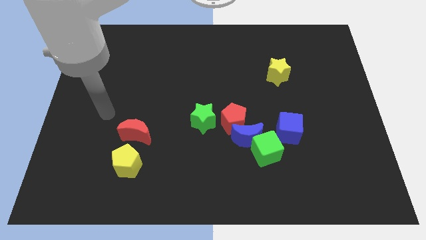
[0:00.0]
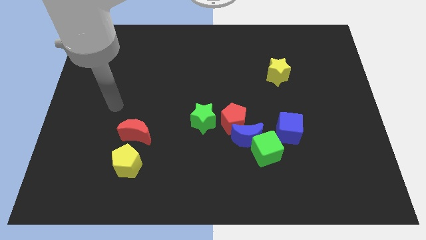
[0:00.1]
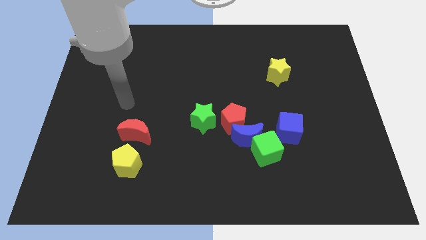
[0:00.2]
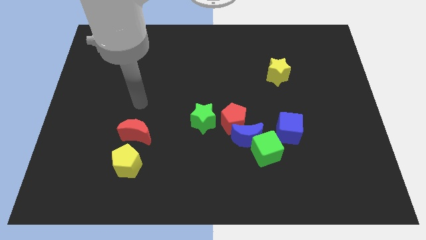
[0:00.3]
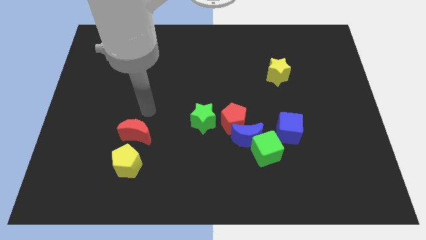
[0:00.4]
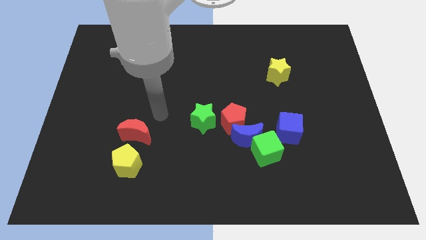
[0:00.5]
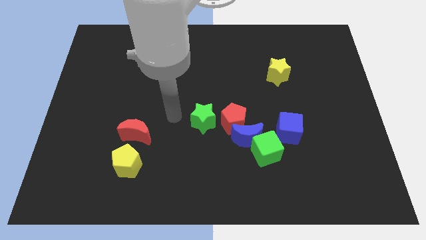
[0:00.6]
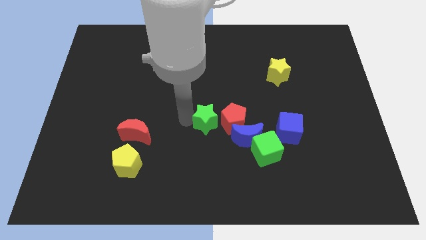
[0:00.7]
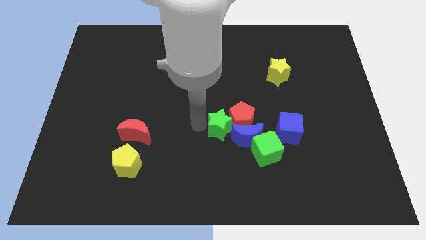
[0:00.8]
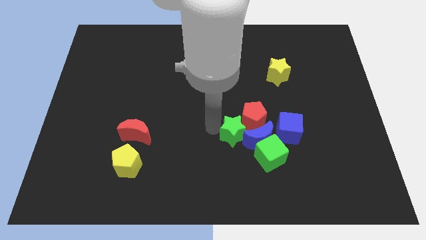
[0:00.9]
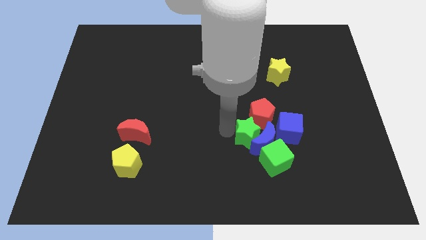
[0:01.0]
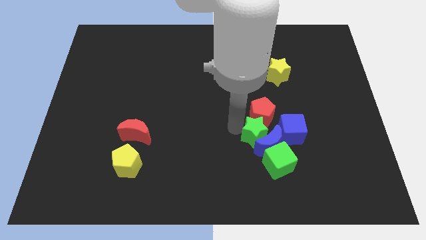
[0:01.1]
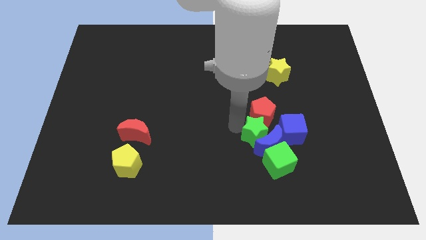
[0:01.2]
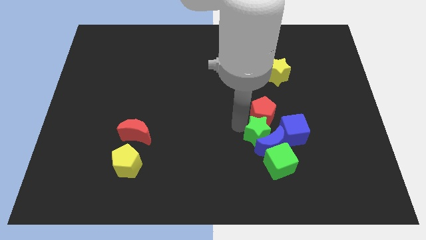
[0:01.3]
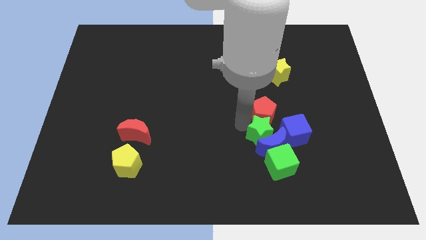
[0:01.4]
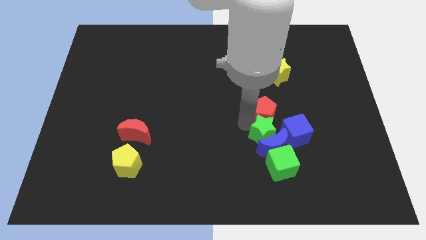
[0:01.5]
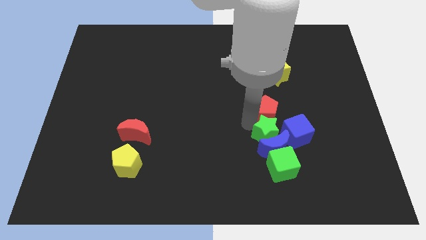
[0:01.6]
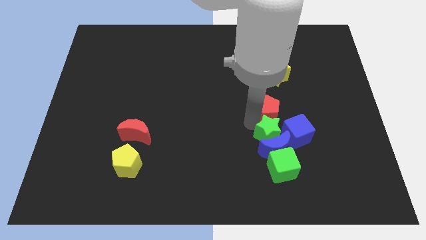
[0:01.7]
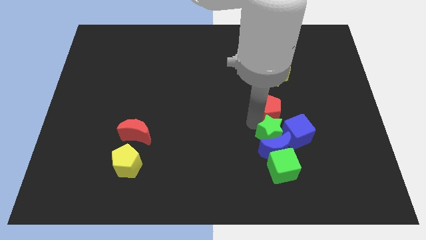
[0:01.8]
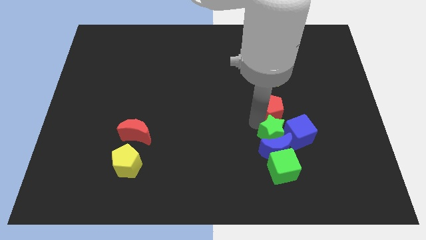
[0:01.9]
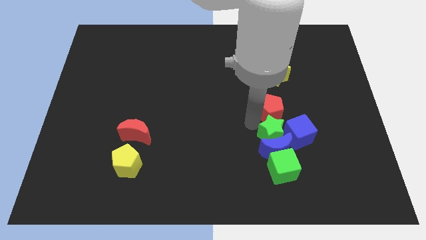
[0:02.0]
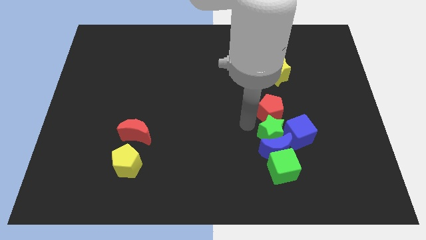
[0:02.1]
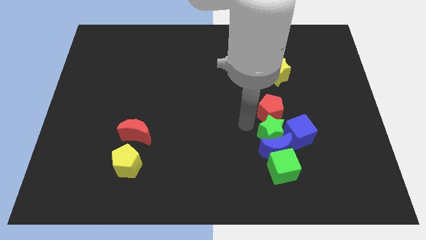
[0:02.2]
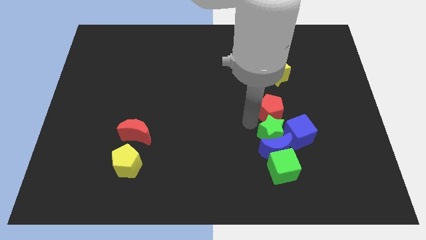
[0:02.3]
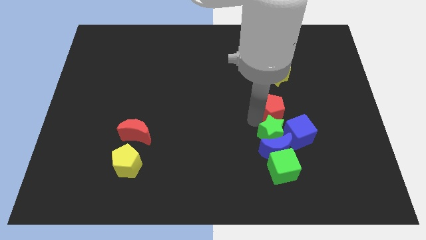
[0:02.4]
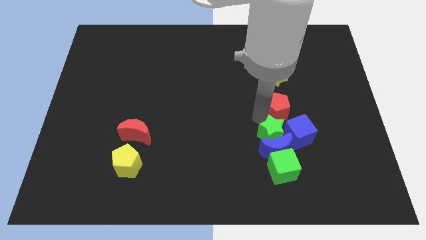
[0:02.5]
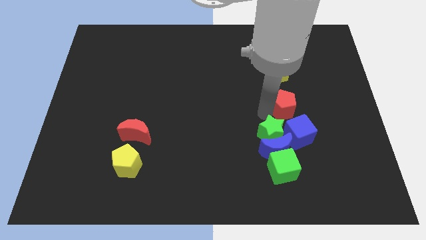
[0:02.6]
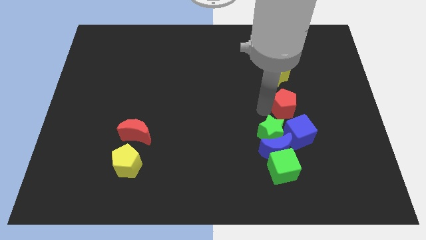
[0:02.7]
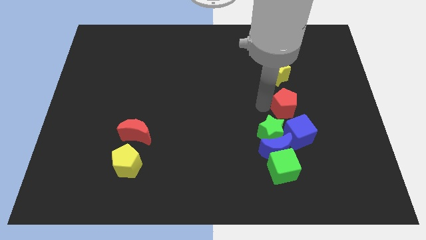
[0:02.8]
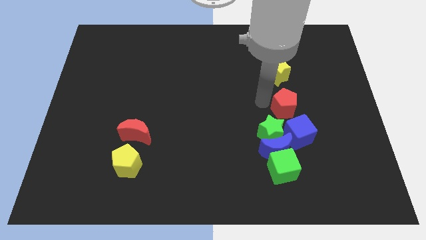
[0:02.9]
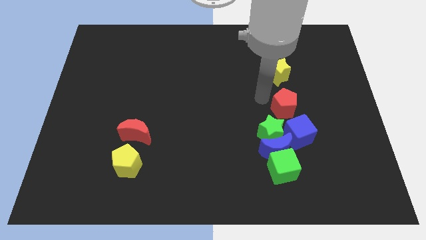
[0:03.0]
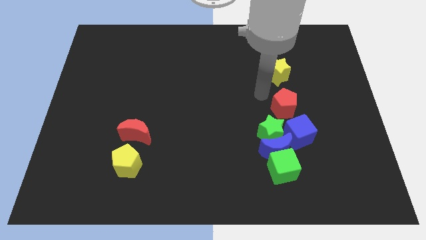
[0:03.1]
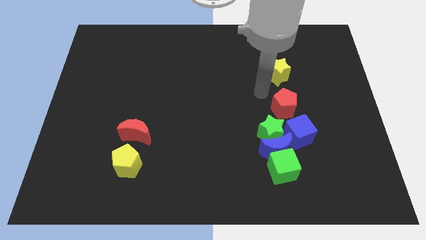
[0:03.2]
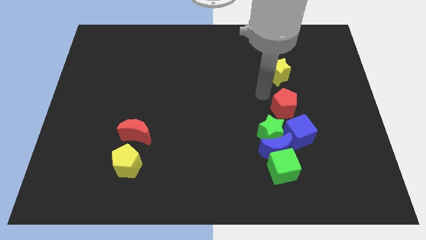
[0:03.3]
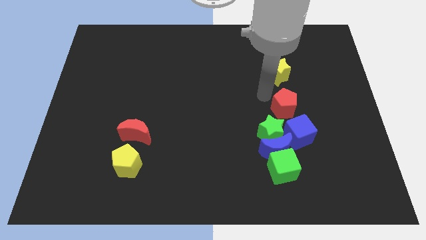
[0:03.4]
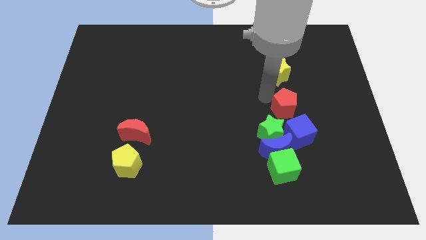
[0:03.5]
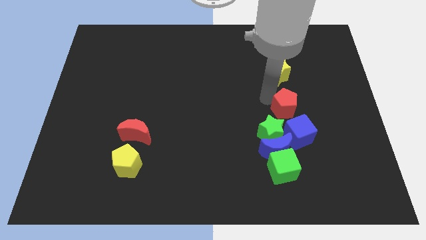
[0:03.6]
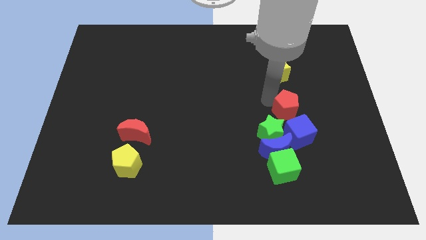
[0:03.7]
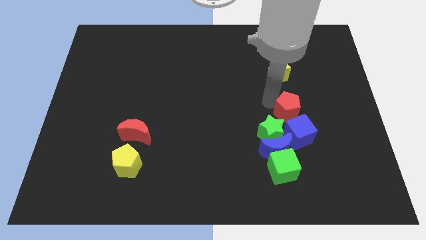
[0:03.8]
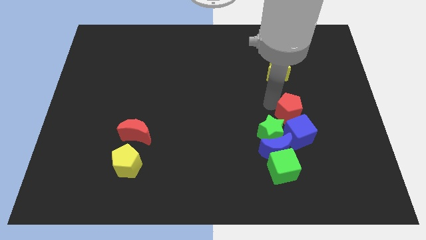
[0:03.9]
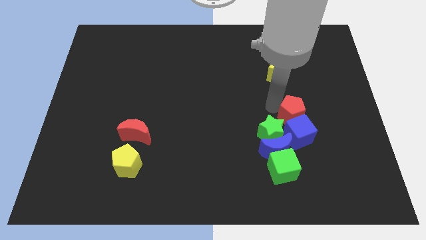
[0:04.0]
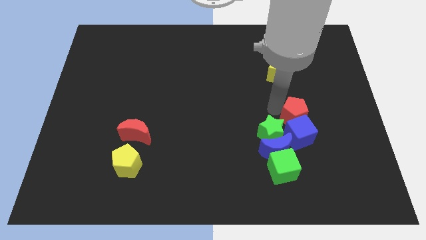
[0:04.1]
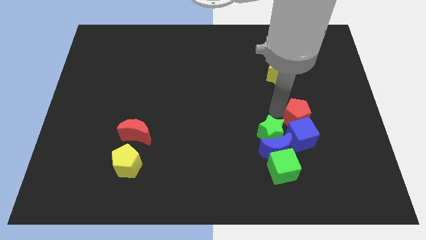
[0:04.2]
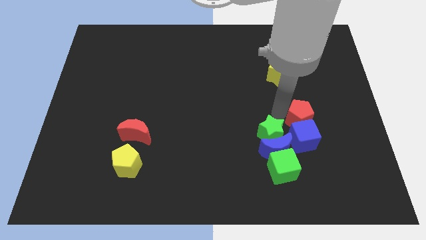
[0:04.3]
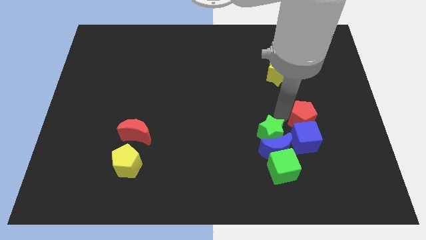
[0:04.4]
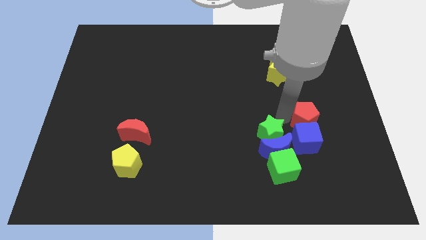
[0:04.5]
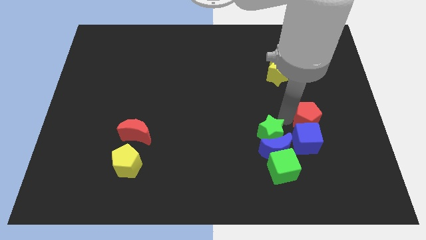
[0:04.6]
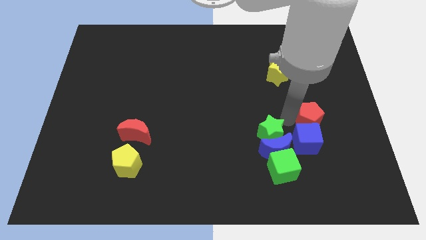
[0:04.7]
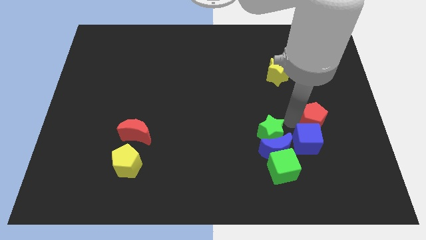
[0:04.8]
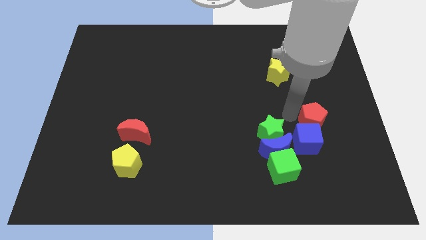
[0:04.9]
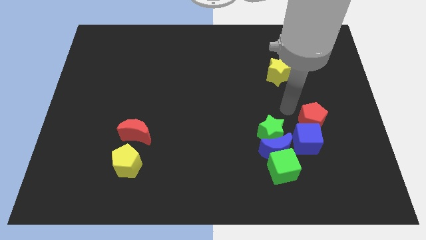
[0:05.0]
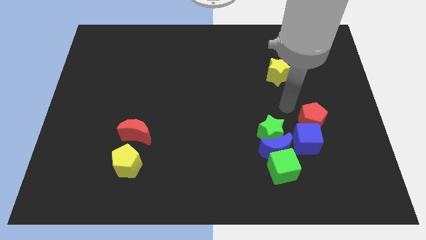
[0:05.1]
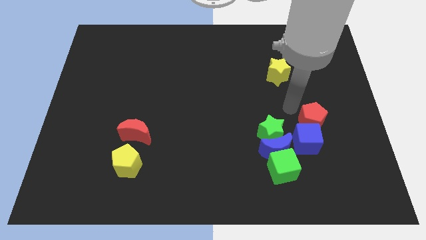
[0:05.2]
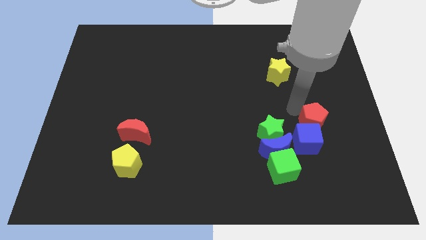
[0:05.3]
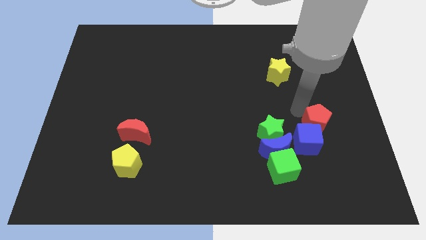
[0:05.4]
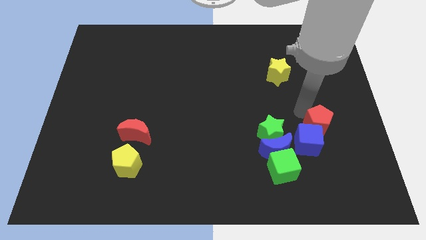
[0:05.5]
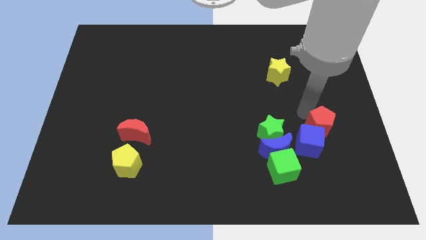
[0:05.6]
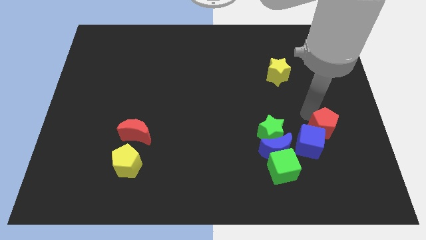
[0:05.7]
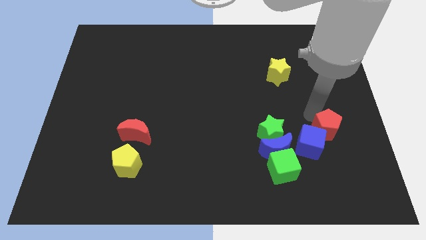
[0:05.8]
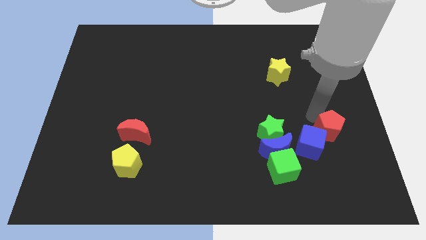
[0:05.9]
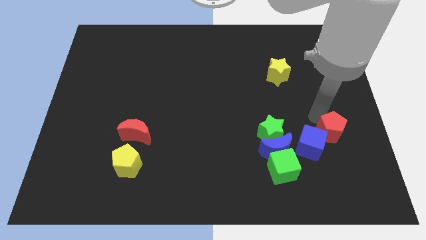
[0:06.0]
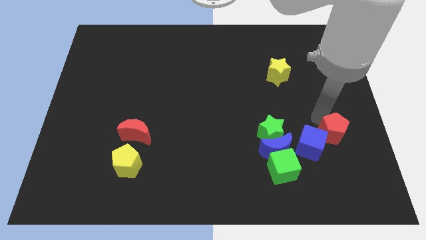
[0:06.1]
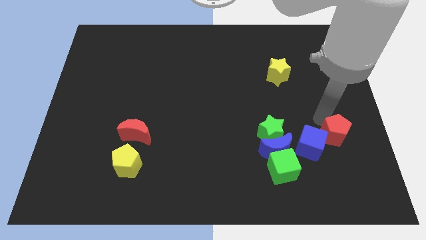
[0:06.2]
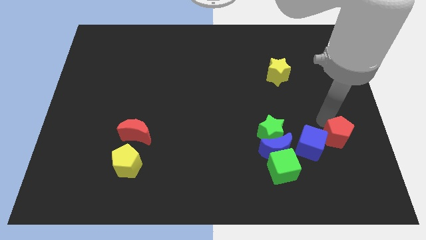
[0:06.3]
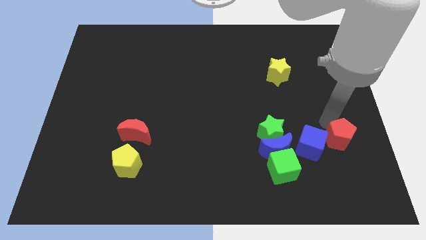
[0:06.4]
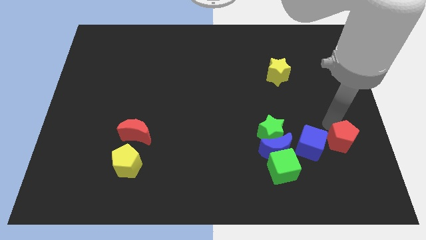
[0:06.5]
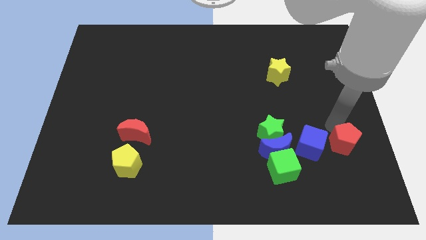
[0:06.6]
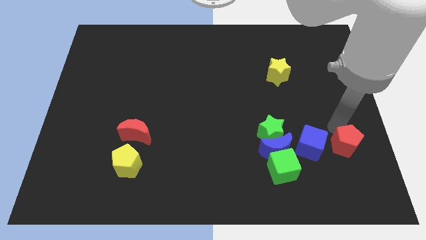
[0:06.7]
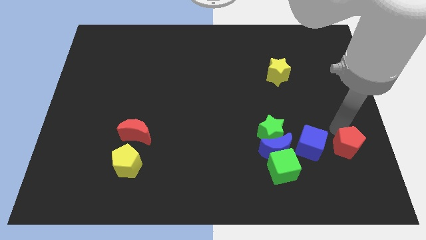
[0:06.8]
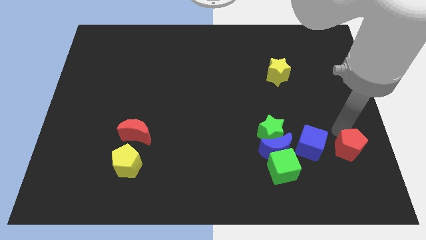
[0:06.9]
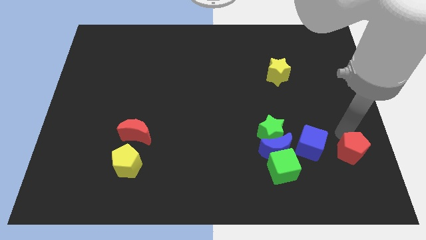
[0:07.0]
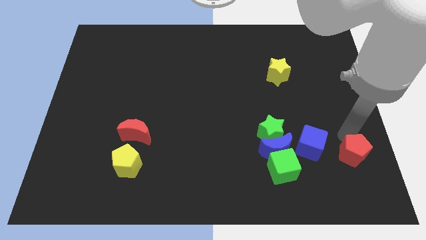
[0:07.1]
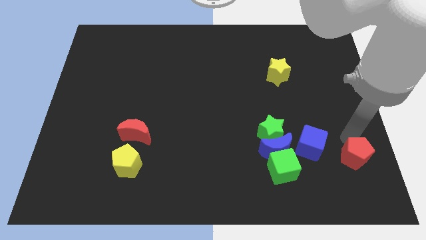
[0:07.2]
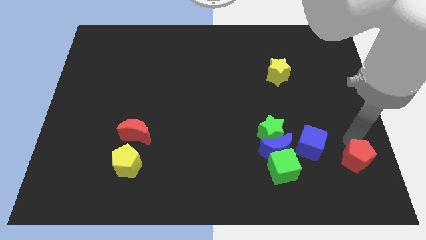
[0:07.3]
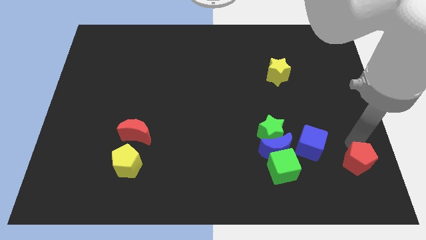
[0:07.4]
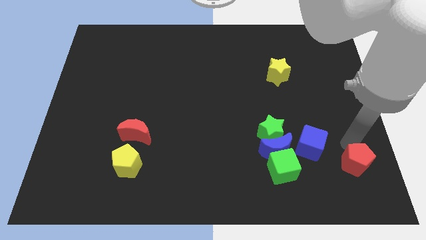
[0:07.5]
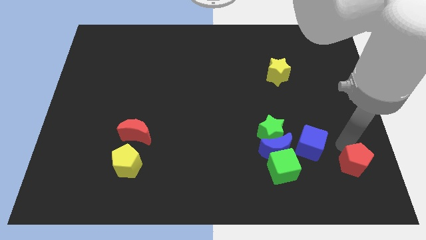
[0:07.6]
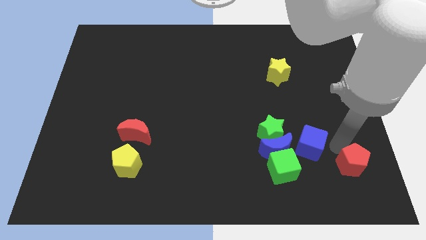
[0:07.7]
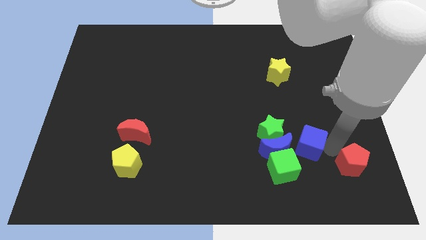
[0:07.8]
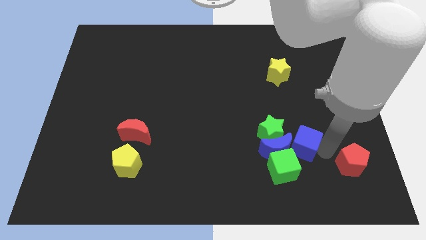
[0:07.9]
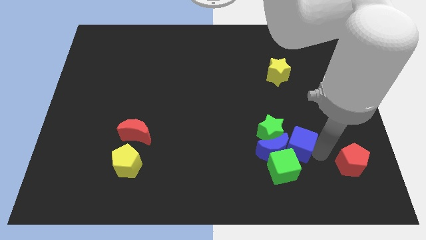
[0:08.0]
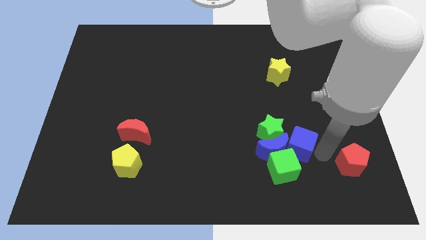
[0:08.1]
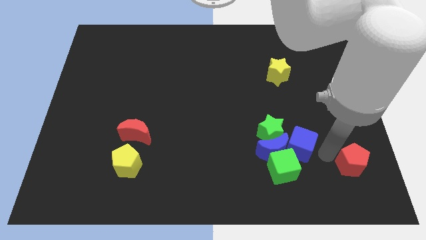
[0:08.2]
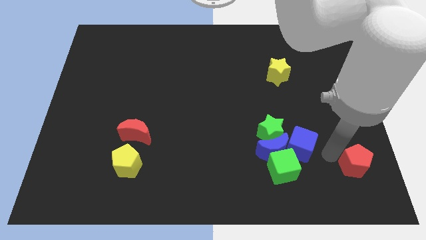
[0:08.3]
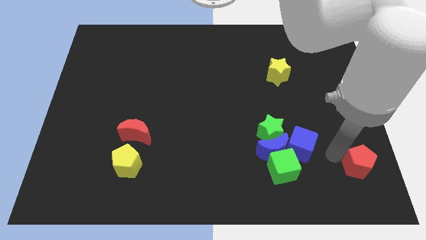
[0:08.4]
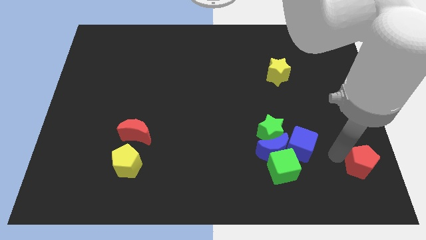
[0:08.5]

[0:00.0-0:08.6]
put the red pentagon to the bottom right
